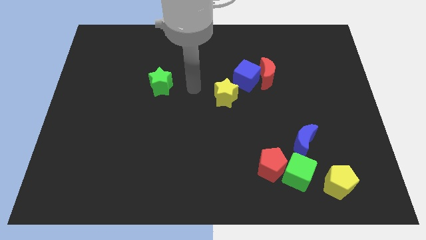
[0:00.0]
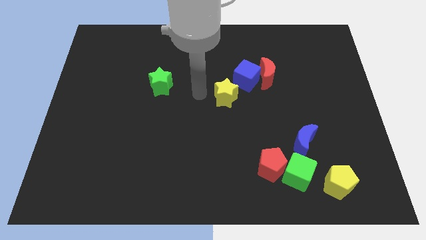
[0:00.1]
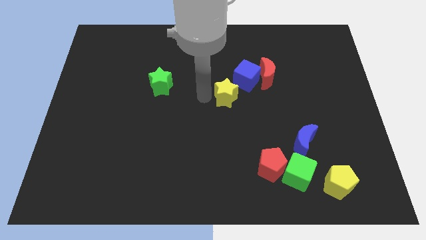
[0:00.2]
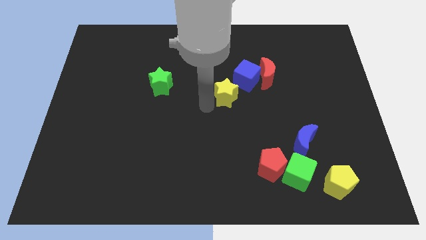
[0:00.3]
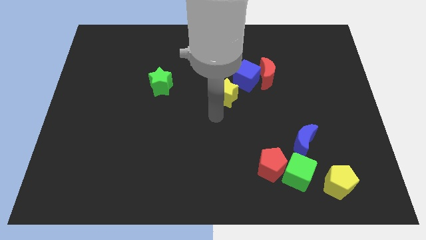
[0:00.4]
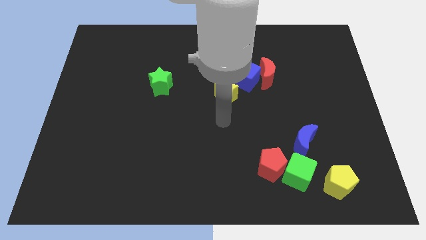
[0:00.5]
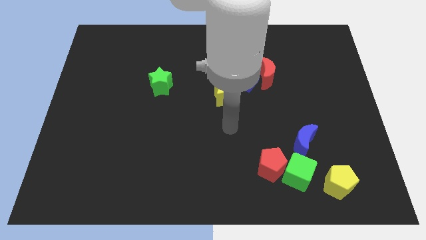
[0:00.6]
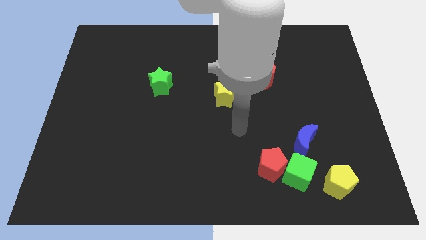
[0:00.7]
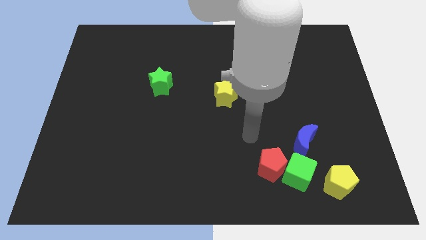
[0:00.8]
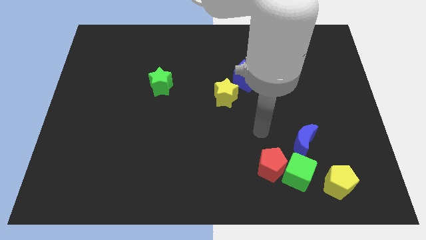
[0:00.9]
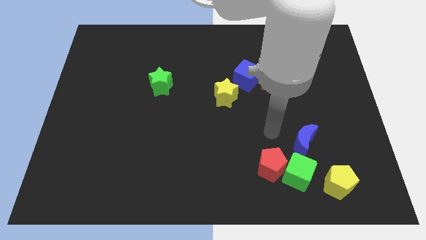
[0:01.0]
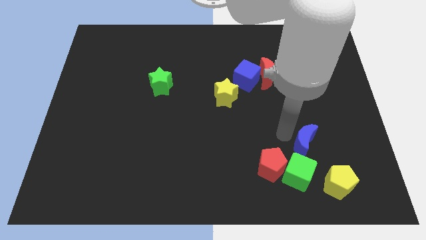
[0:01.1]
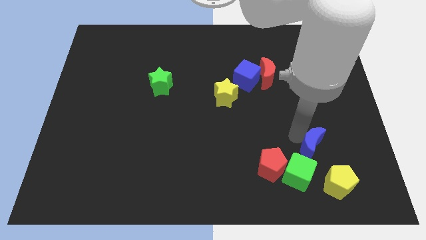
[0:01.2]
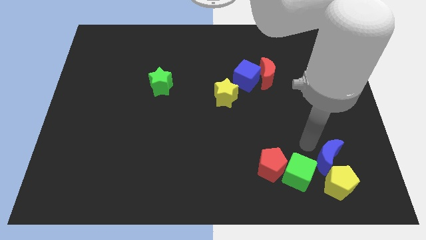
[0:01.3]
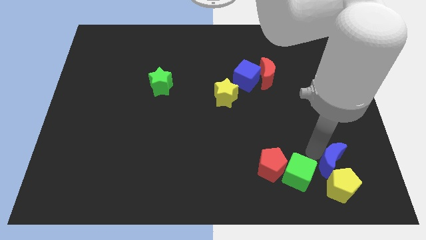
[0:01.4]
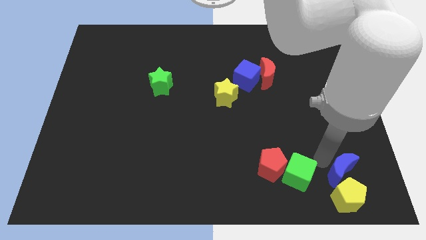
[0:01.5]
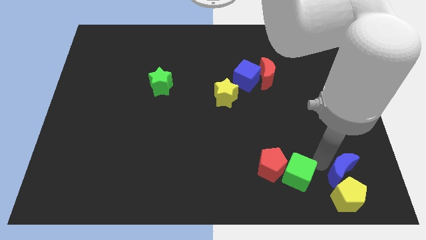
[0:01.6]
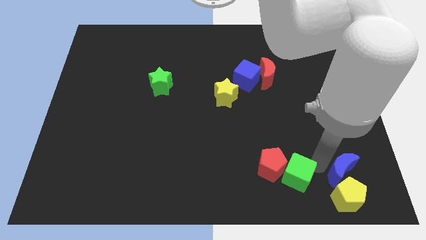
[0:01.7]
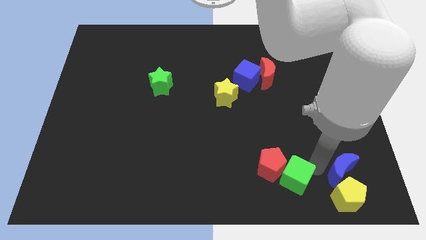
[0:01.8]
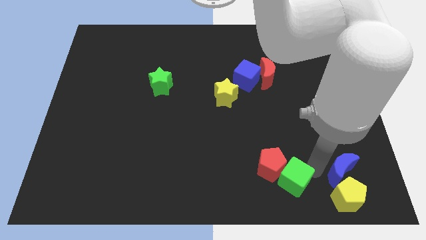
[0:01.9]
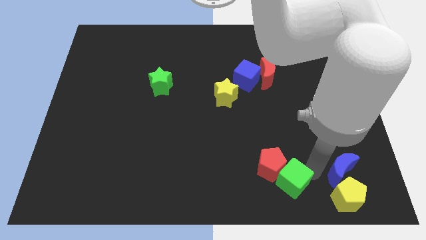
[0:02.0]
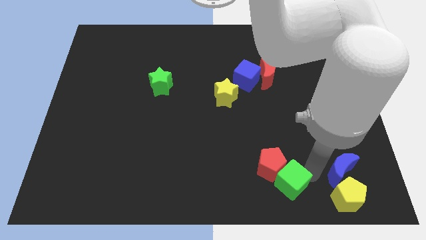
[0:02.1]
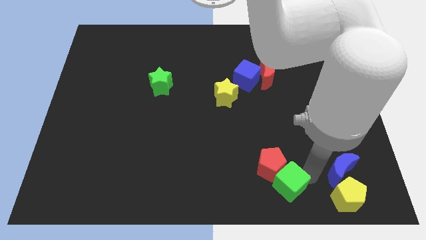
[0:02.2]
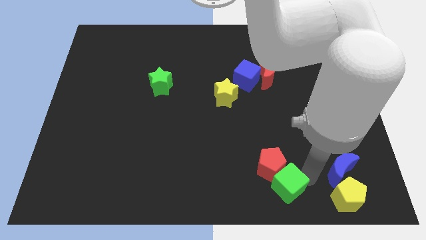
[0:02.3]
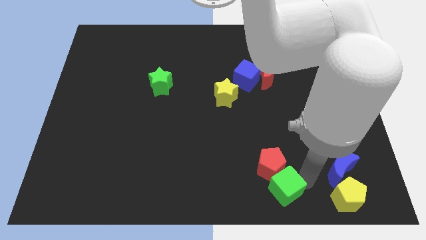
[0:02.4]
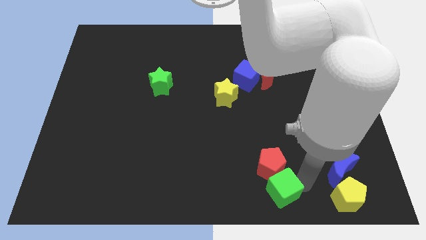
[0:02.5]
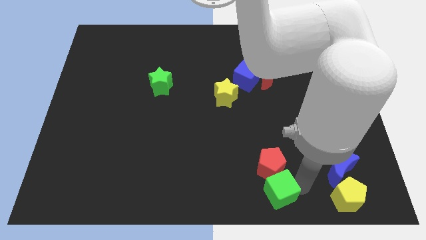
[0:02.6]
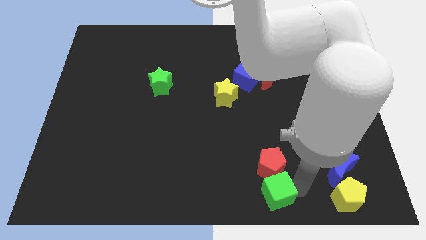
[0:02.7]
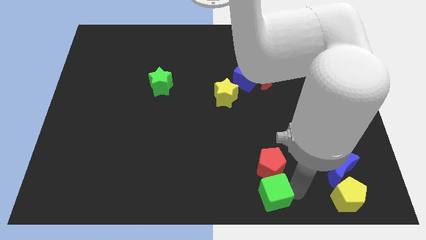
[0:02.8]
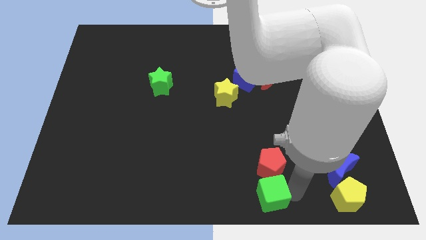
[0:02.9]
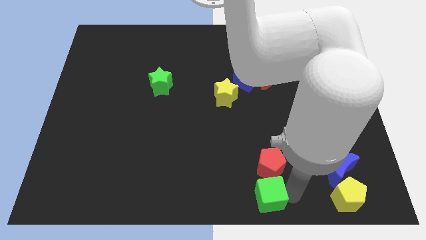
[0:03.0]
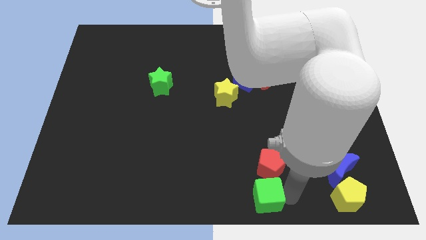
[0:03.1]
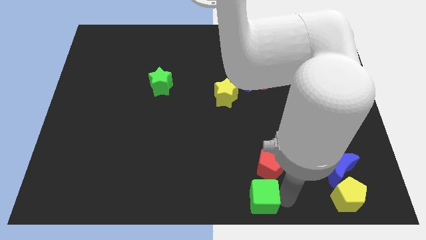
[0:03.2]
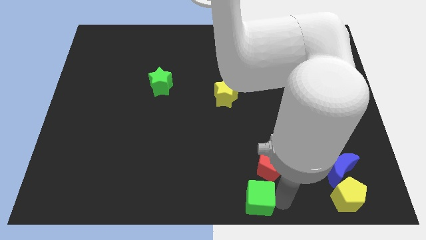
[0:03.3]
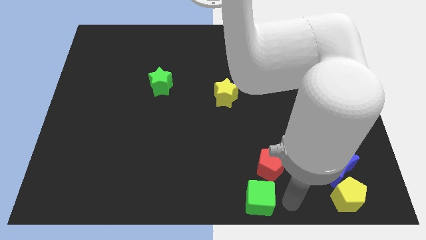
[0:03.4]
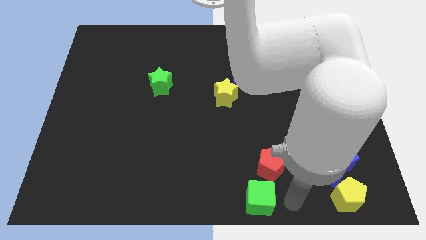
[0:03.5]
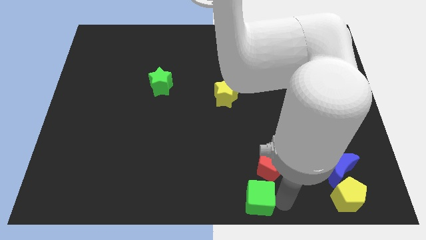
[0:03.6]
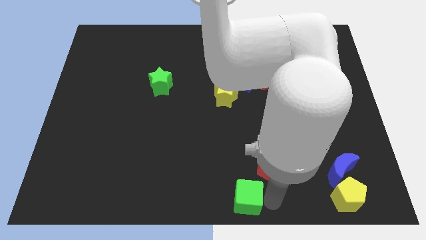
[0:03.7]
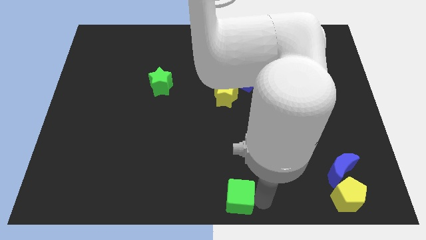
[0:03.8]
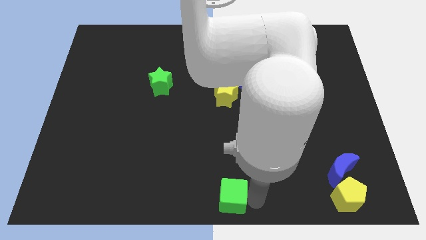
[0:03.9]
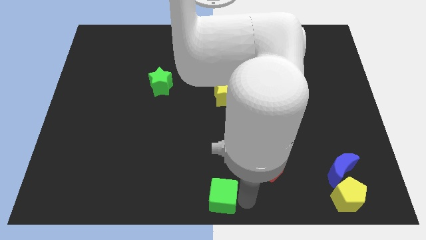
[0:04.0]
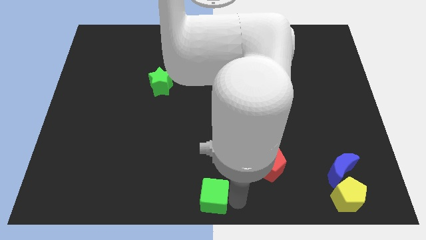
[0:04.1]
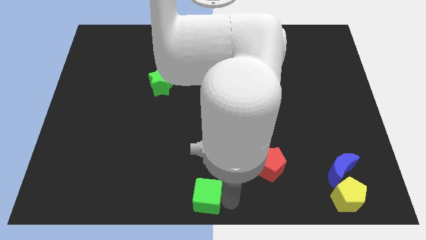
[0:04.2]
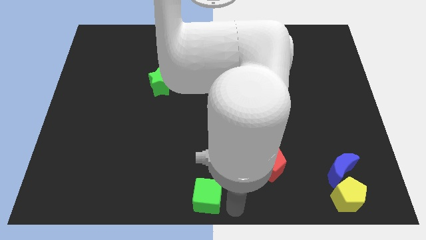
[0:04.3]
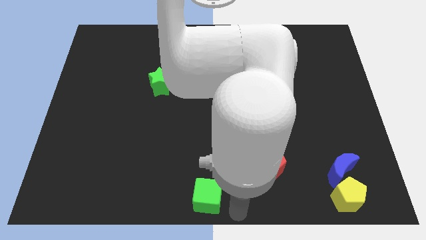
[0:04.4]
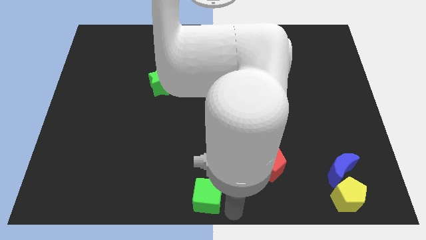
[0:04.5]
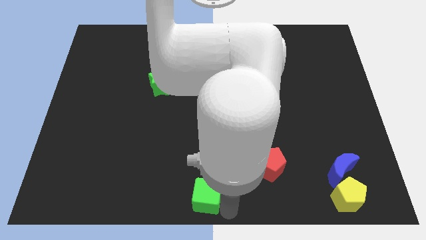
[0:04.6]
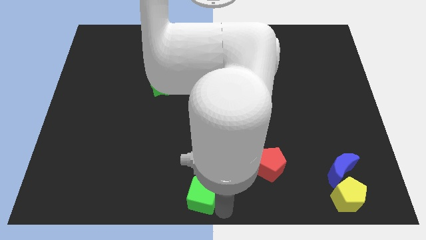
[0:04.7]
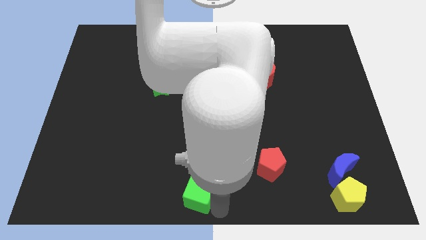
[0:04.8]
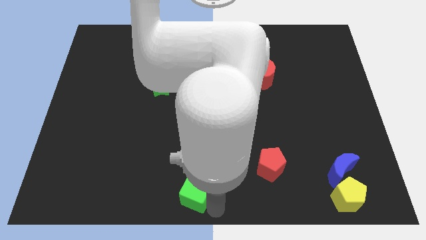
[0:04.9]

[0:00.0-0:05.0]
push the green cube left

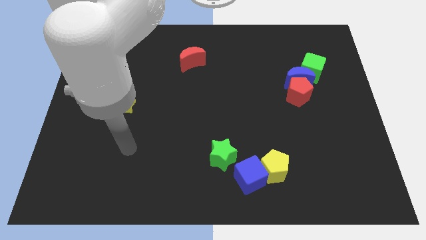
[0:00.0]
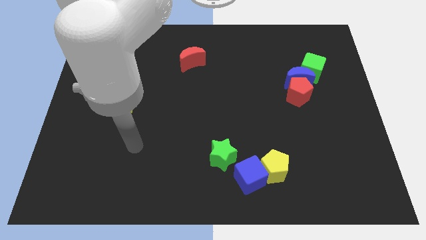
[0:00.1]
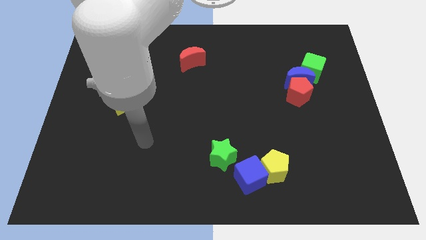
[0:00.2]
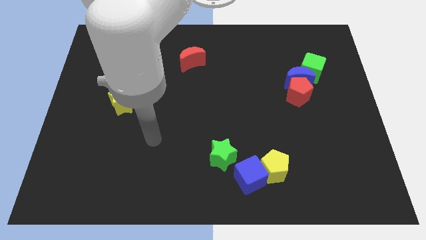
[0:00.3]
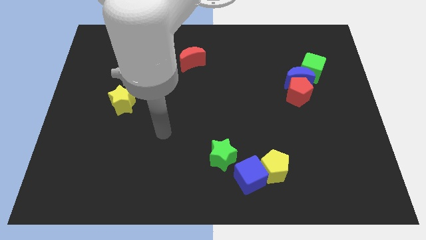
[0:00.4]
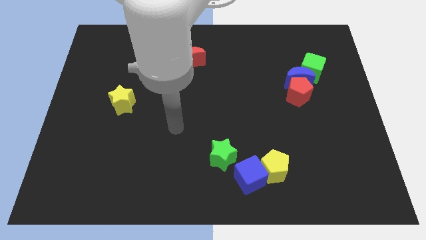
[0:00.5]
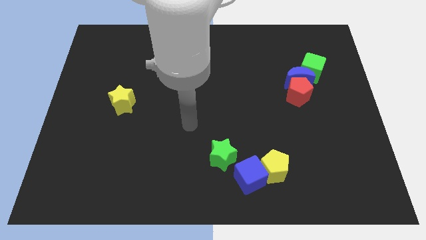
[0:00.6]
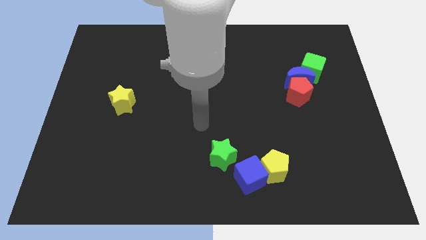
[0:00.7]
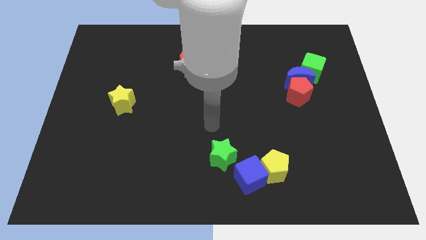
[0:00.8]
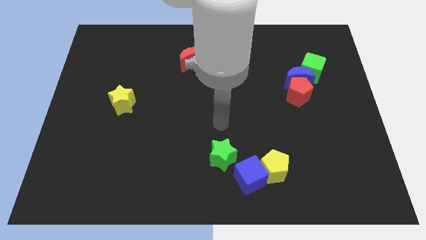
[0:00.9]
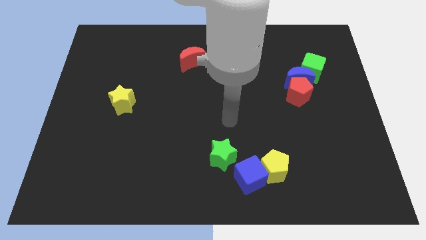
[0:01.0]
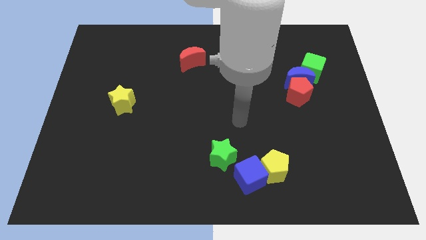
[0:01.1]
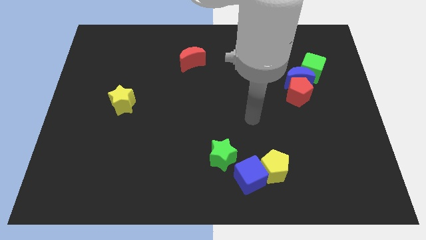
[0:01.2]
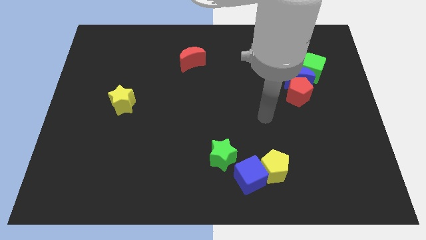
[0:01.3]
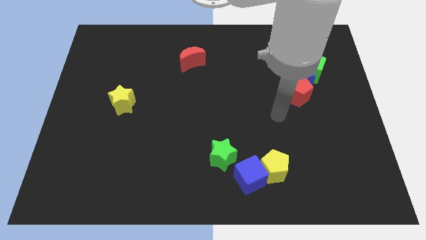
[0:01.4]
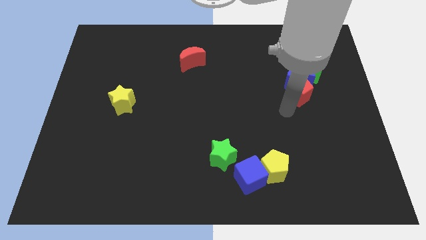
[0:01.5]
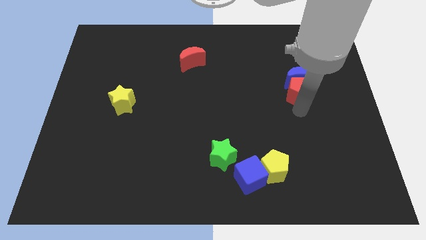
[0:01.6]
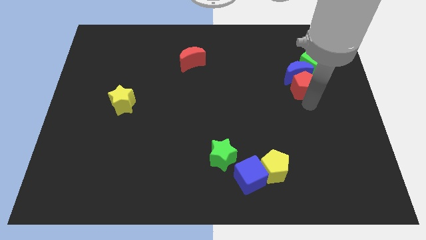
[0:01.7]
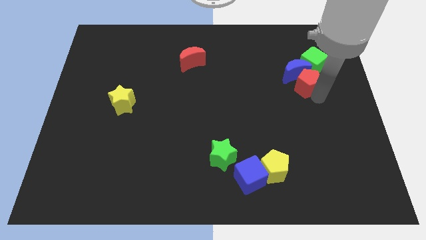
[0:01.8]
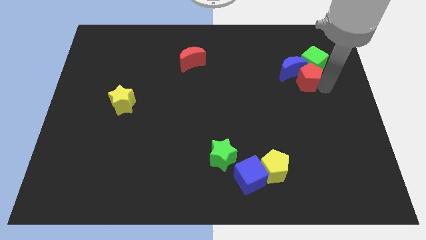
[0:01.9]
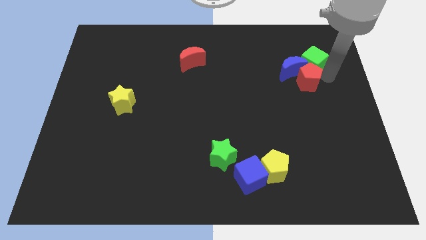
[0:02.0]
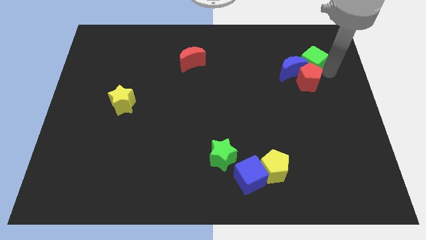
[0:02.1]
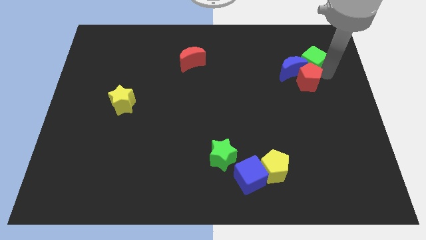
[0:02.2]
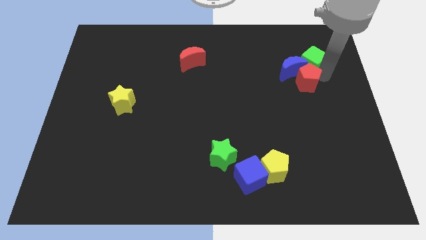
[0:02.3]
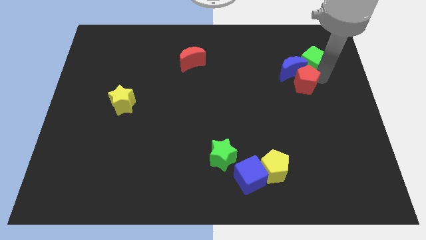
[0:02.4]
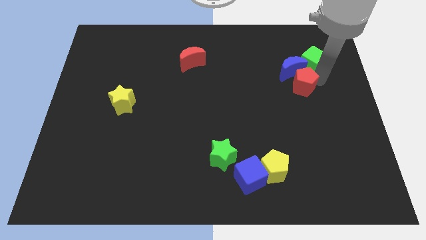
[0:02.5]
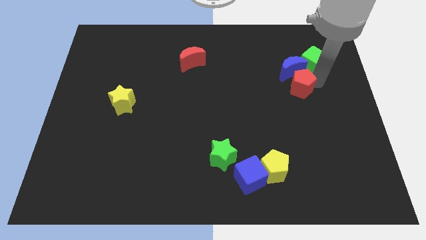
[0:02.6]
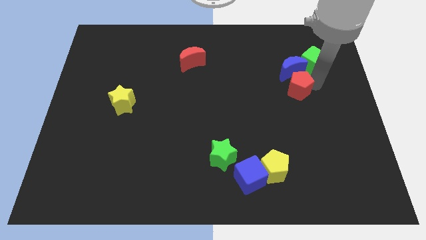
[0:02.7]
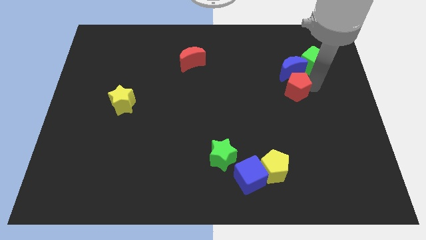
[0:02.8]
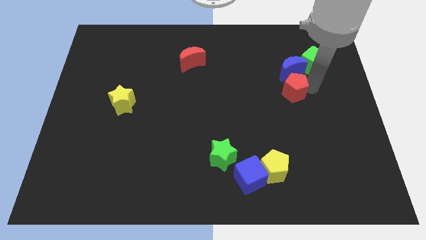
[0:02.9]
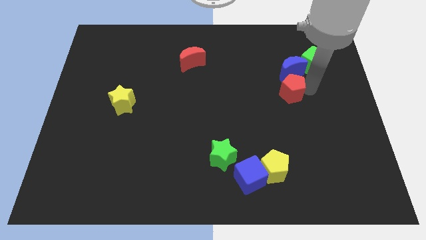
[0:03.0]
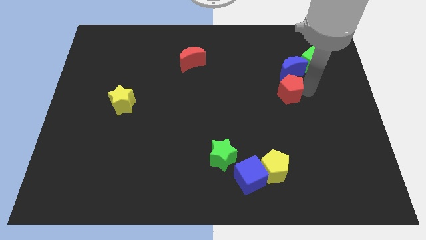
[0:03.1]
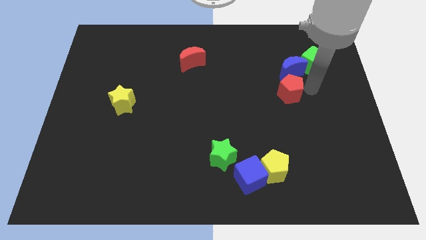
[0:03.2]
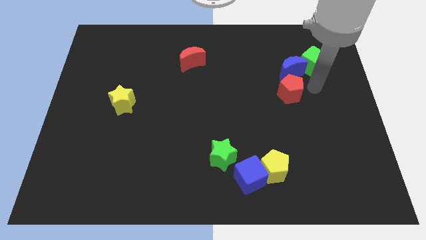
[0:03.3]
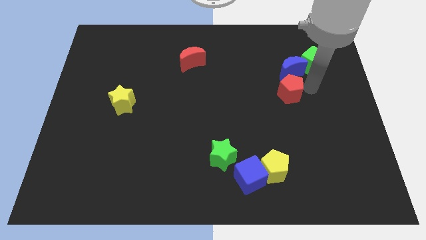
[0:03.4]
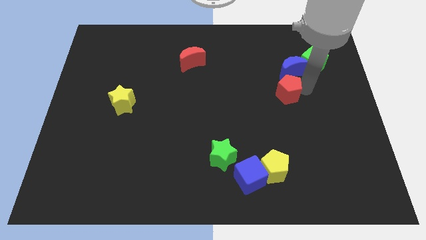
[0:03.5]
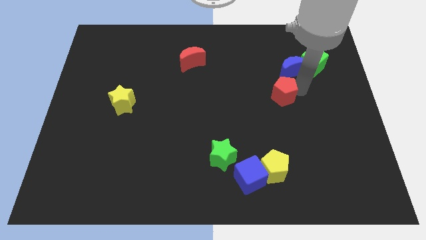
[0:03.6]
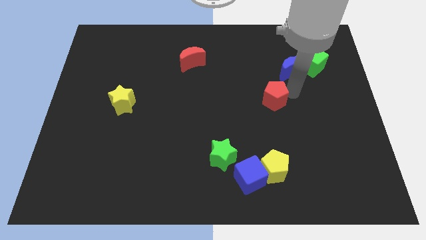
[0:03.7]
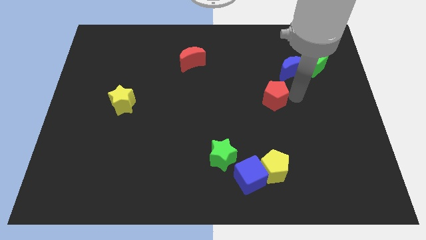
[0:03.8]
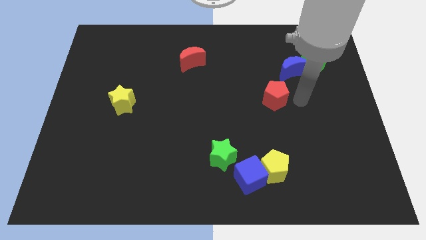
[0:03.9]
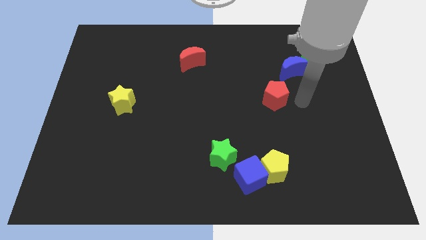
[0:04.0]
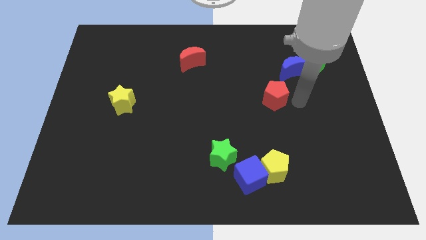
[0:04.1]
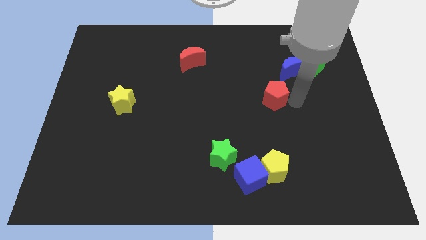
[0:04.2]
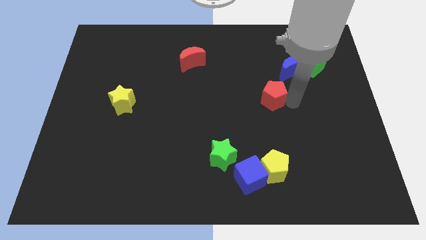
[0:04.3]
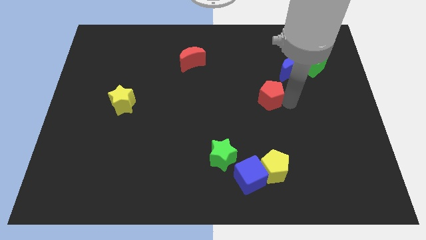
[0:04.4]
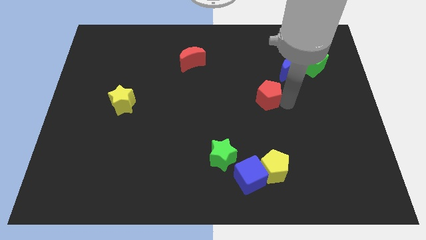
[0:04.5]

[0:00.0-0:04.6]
push the red pentagon a bit left
